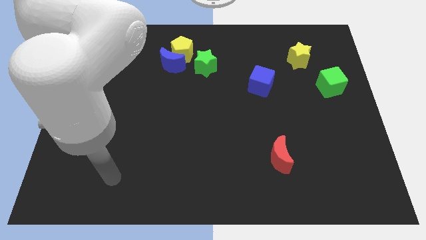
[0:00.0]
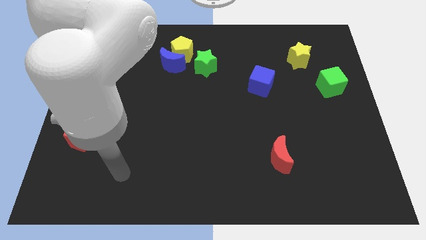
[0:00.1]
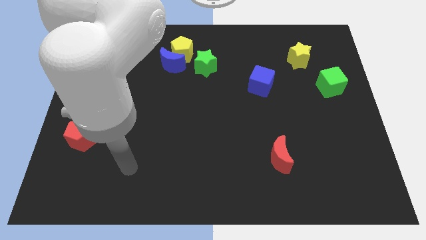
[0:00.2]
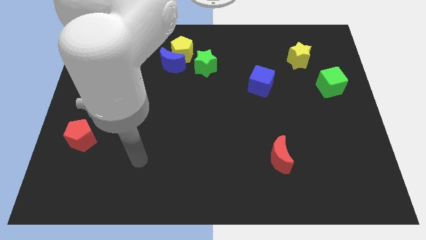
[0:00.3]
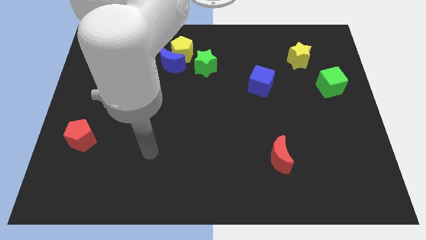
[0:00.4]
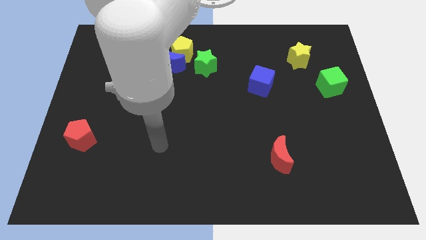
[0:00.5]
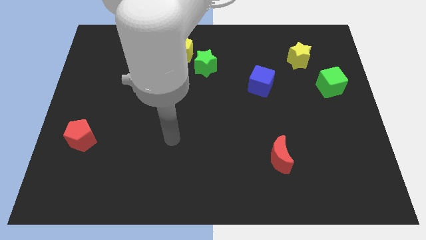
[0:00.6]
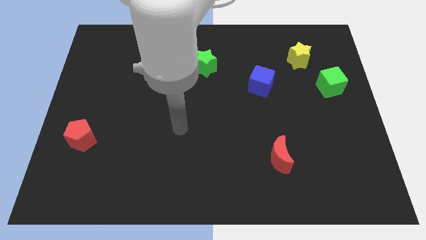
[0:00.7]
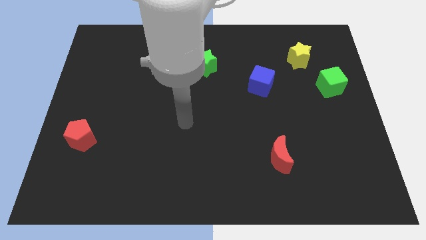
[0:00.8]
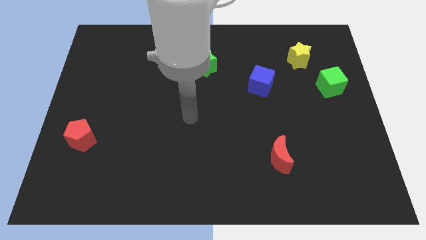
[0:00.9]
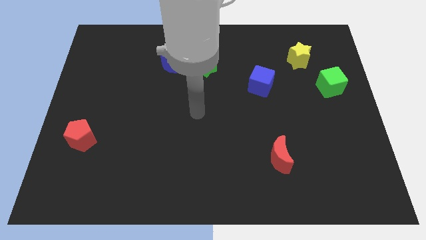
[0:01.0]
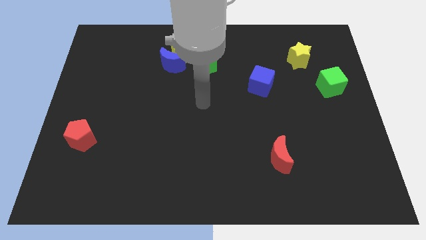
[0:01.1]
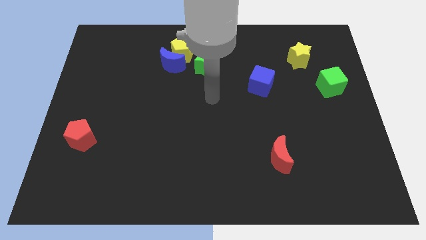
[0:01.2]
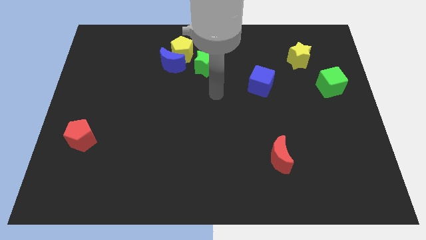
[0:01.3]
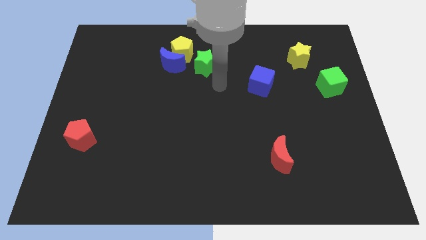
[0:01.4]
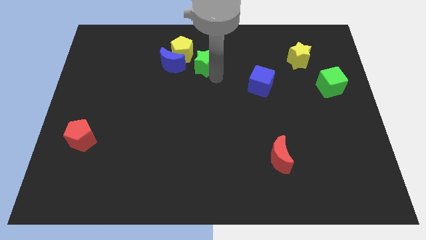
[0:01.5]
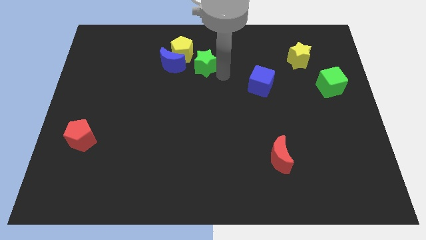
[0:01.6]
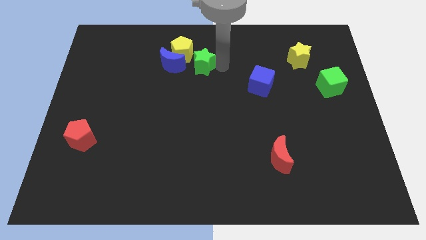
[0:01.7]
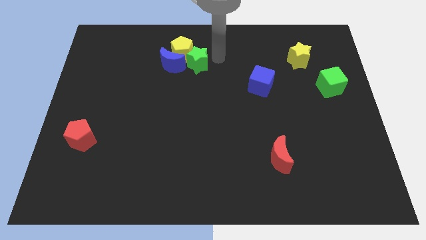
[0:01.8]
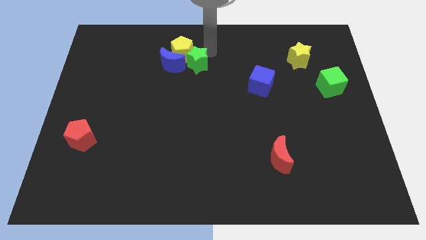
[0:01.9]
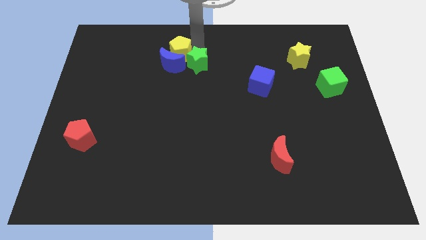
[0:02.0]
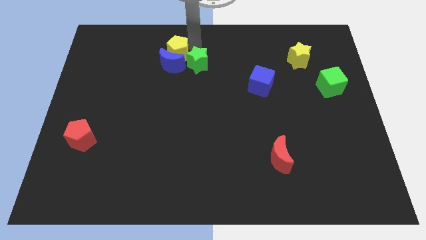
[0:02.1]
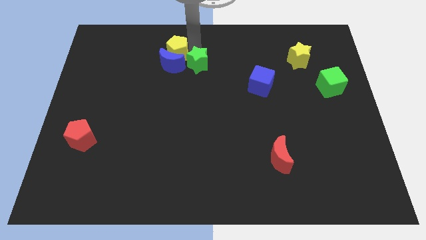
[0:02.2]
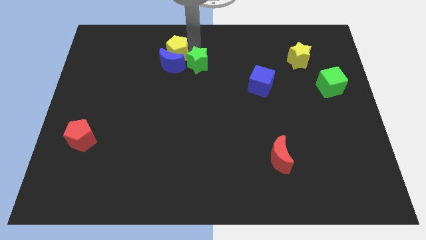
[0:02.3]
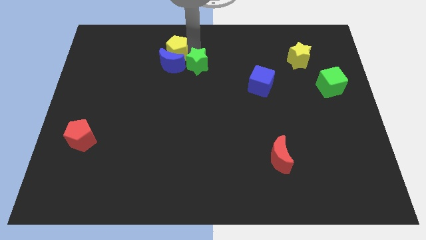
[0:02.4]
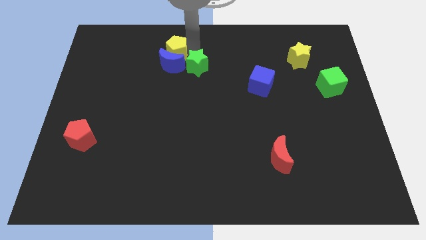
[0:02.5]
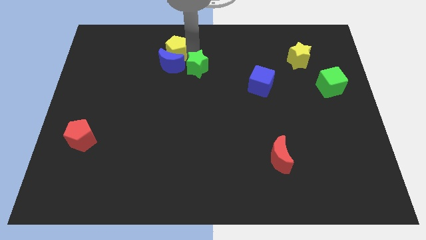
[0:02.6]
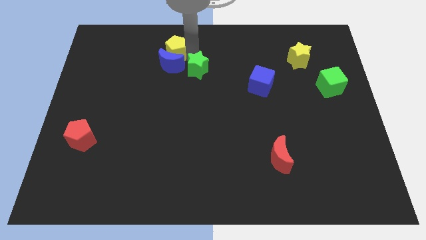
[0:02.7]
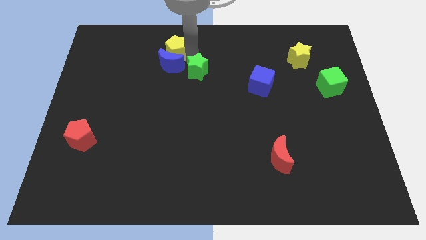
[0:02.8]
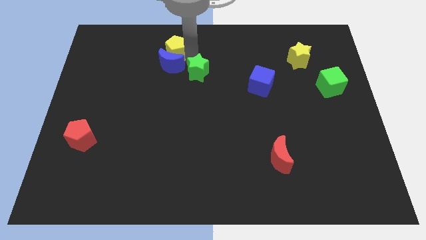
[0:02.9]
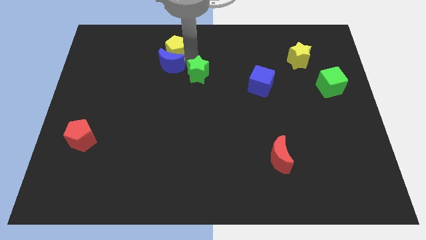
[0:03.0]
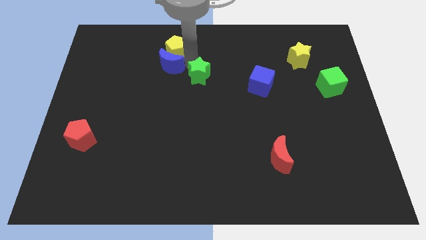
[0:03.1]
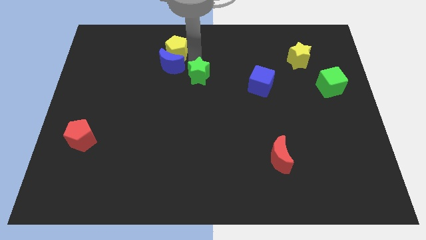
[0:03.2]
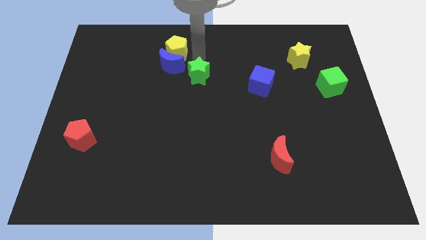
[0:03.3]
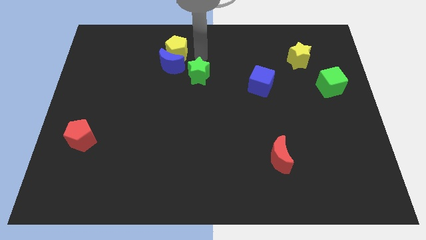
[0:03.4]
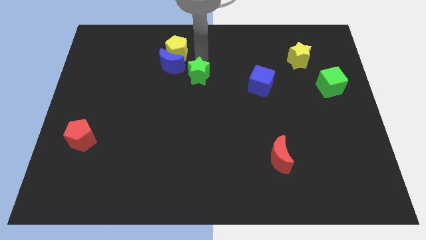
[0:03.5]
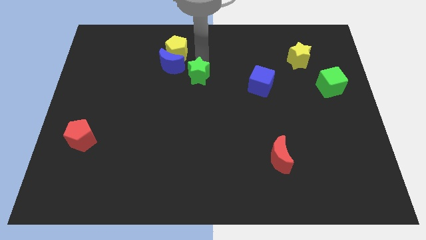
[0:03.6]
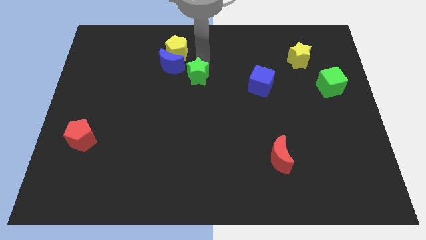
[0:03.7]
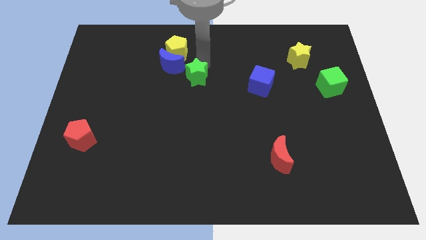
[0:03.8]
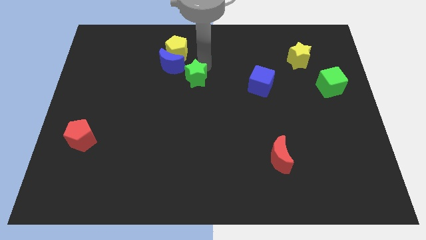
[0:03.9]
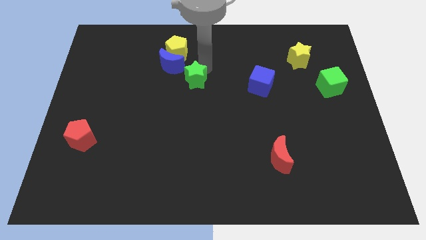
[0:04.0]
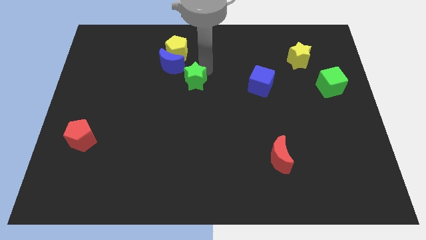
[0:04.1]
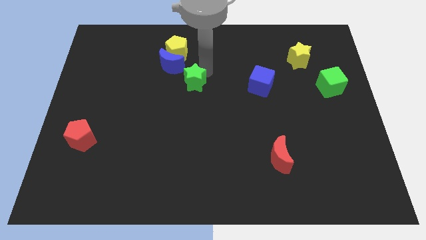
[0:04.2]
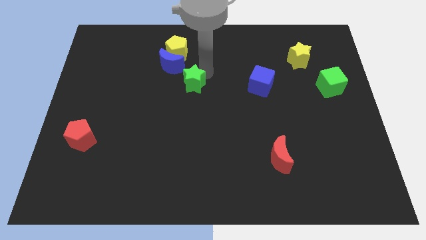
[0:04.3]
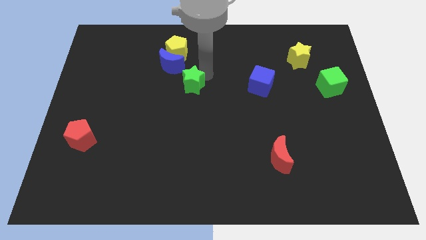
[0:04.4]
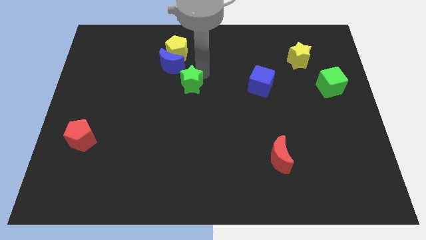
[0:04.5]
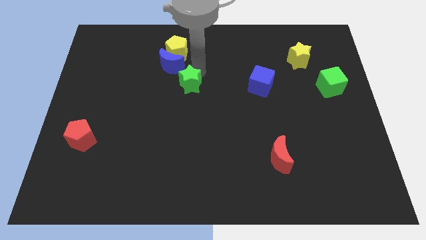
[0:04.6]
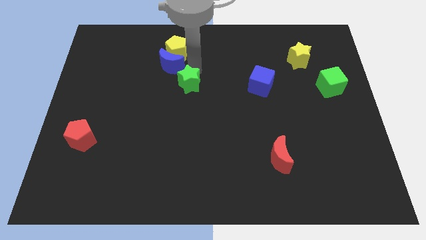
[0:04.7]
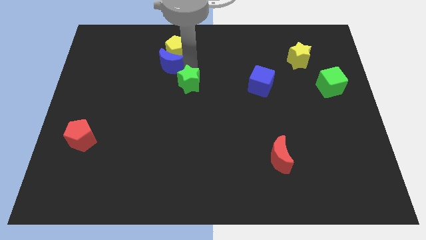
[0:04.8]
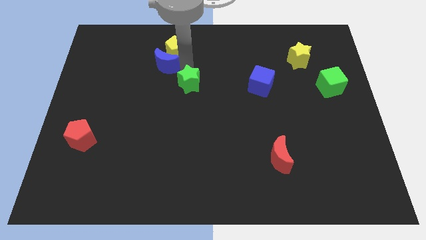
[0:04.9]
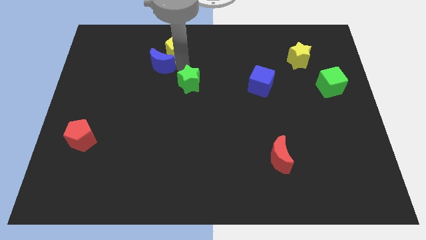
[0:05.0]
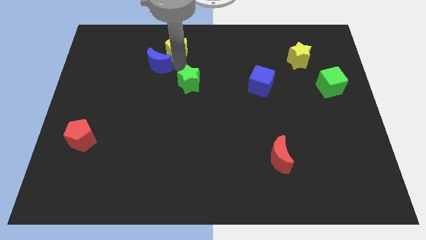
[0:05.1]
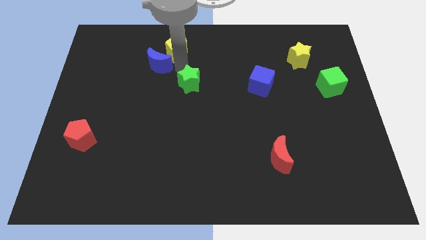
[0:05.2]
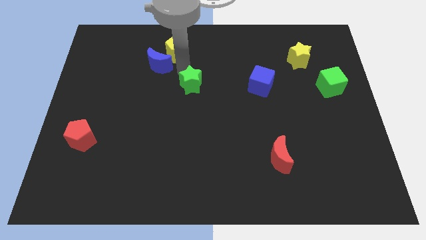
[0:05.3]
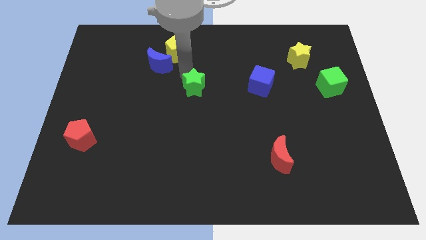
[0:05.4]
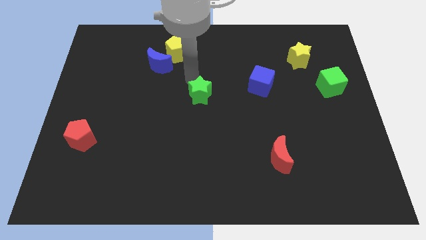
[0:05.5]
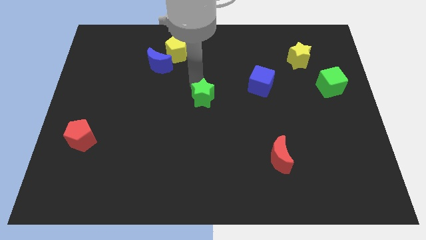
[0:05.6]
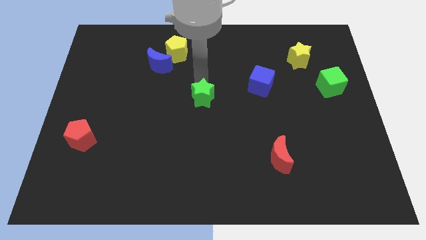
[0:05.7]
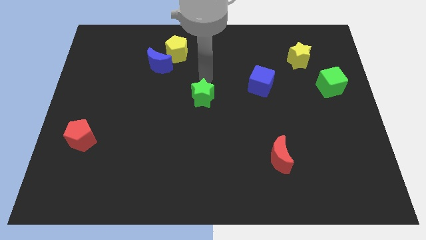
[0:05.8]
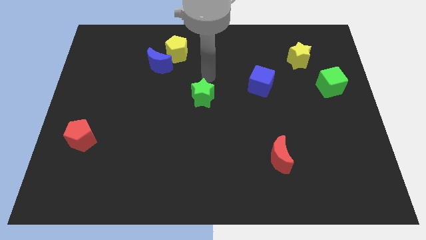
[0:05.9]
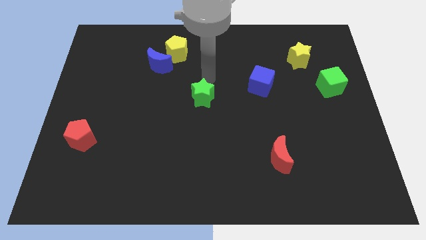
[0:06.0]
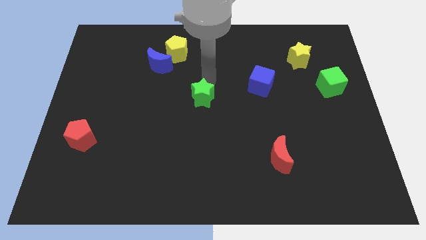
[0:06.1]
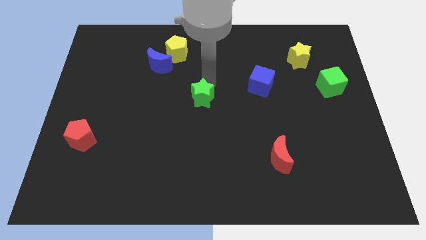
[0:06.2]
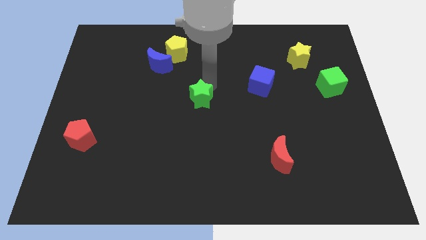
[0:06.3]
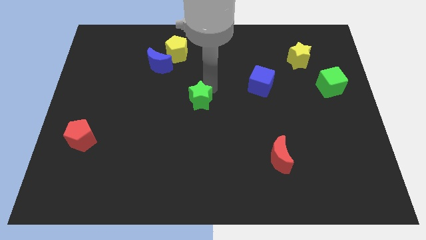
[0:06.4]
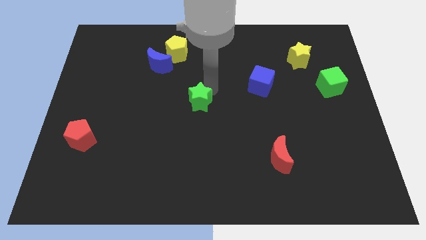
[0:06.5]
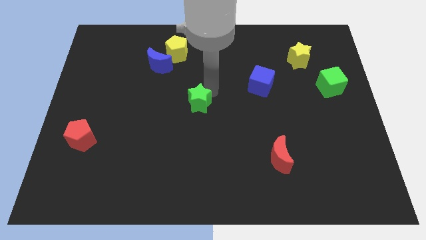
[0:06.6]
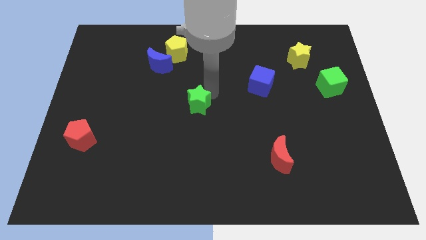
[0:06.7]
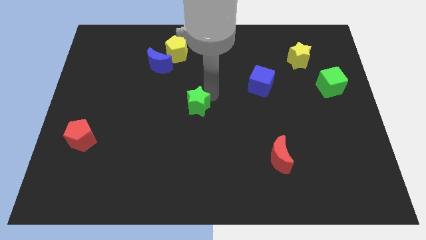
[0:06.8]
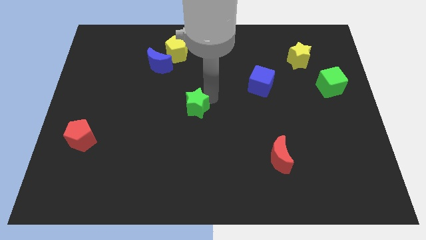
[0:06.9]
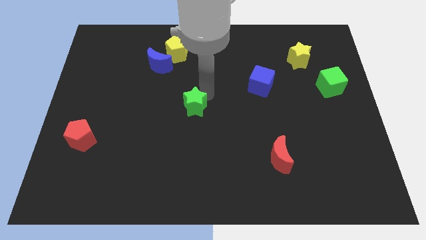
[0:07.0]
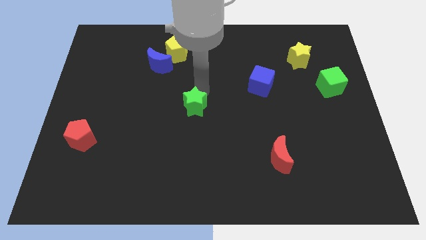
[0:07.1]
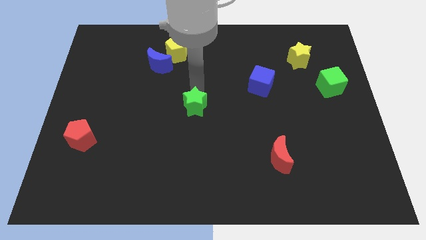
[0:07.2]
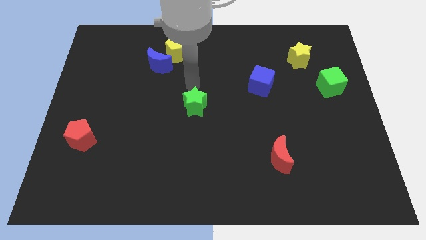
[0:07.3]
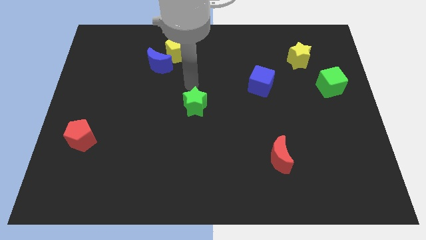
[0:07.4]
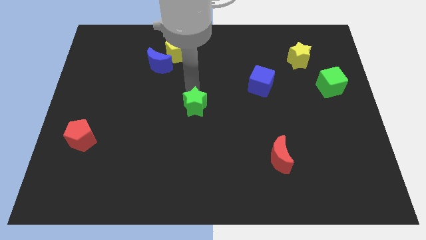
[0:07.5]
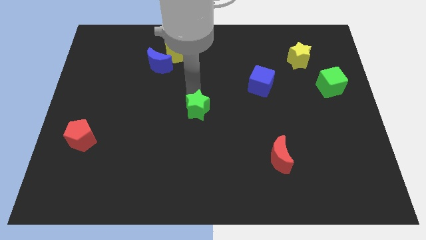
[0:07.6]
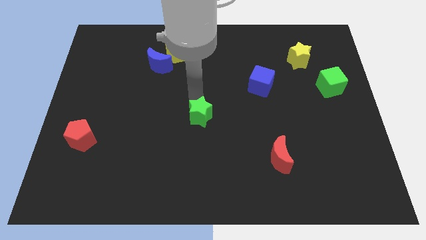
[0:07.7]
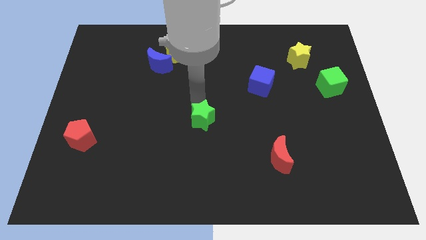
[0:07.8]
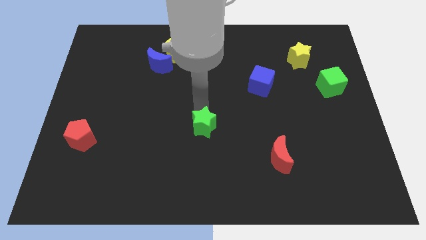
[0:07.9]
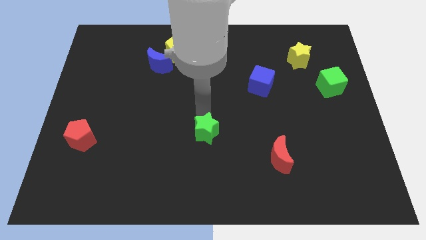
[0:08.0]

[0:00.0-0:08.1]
slide the green star down
